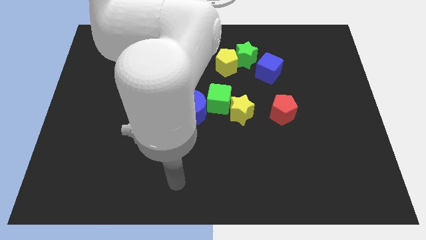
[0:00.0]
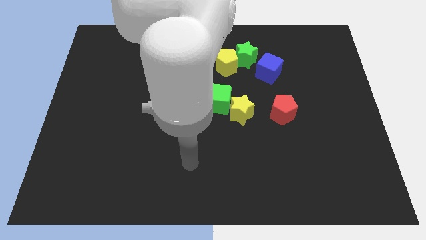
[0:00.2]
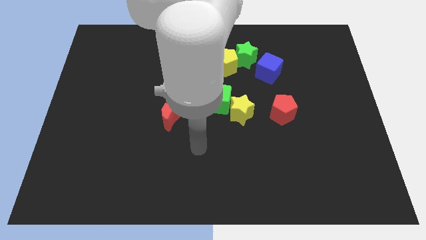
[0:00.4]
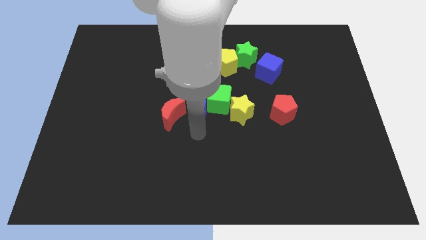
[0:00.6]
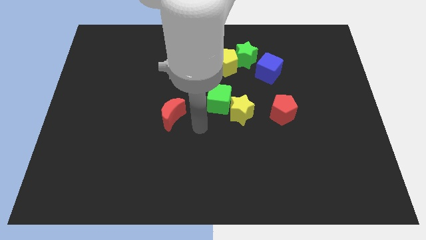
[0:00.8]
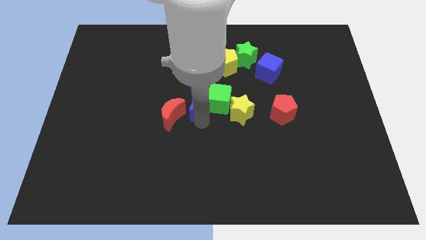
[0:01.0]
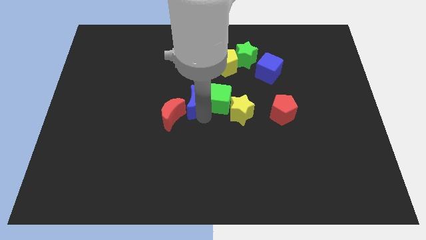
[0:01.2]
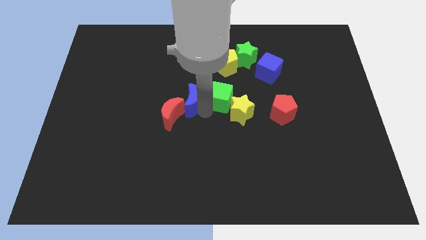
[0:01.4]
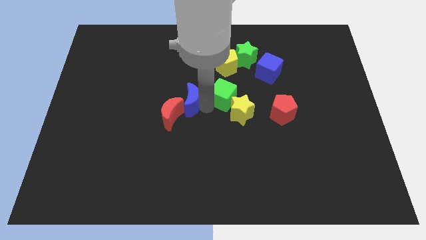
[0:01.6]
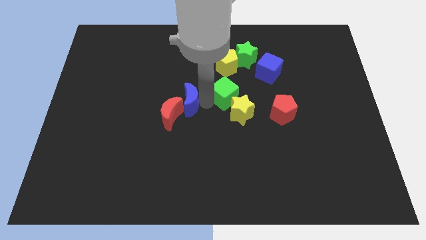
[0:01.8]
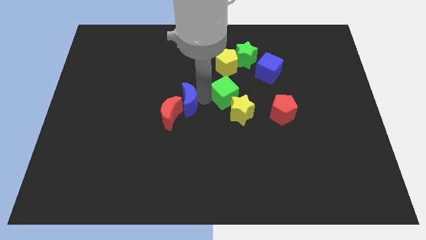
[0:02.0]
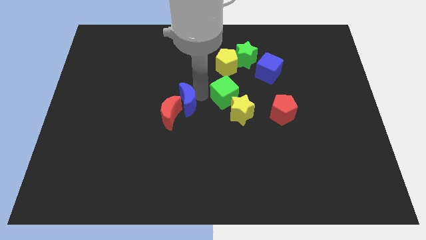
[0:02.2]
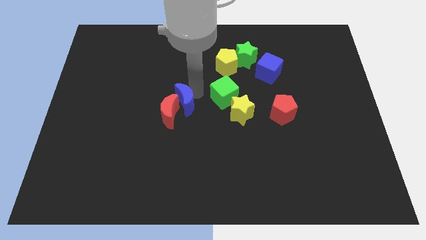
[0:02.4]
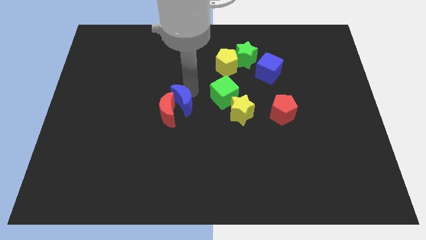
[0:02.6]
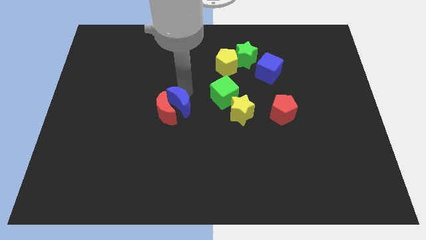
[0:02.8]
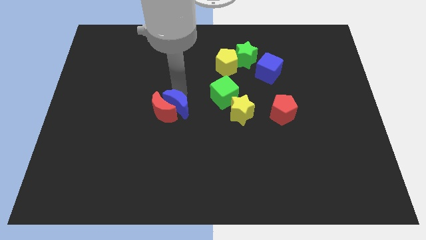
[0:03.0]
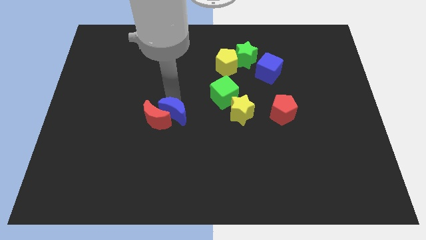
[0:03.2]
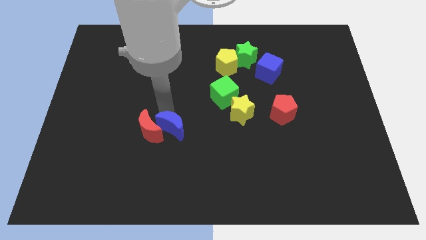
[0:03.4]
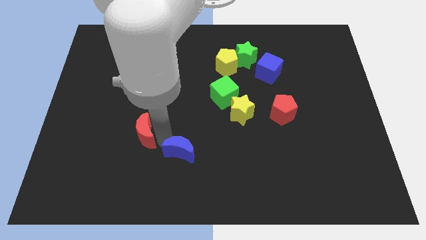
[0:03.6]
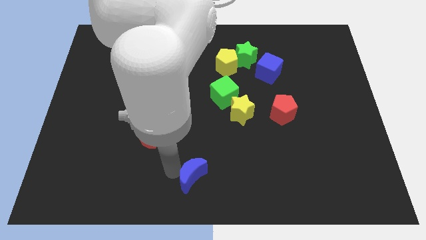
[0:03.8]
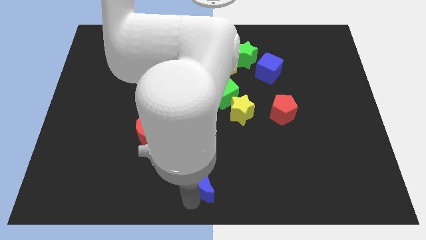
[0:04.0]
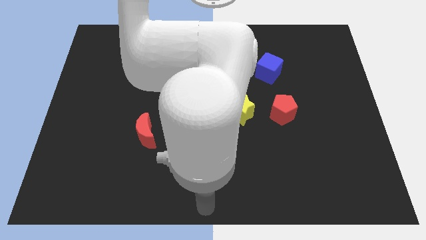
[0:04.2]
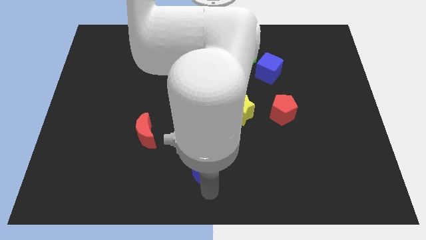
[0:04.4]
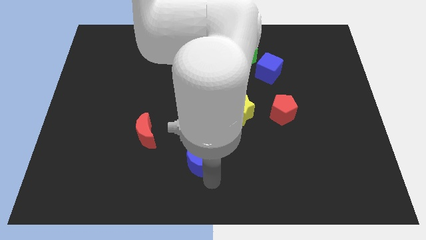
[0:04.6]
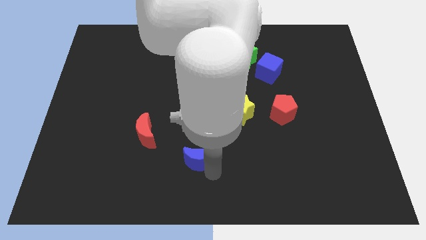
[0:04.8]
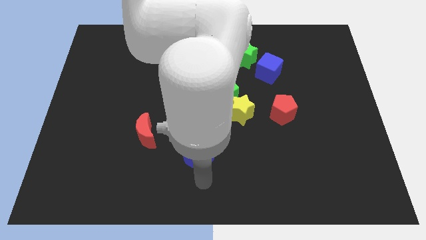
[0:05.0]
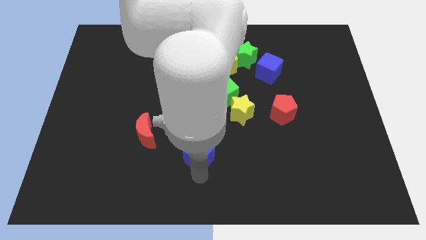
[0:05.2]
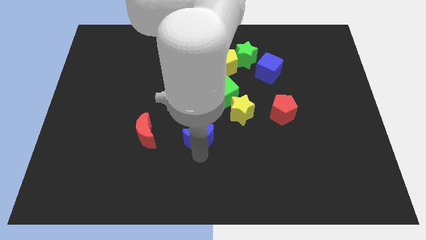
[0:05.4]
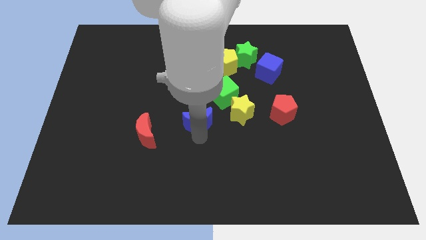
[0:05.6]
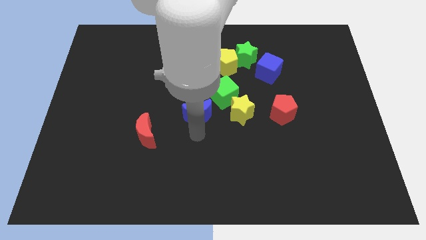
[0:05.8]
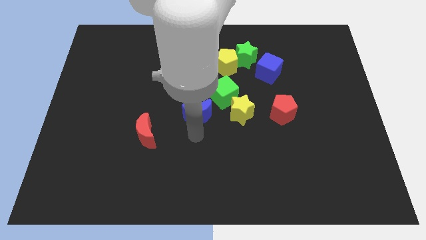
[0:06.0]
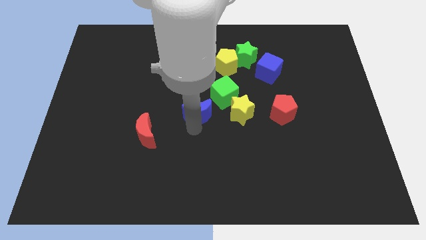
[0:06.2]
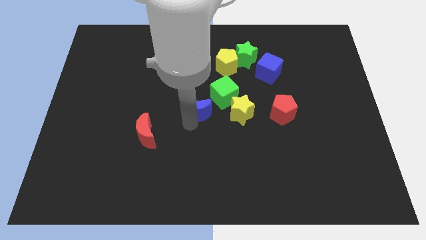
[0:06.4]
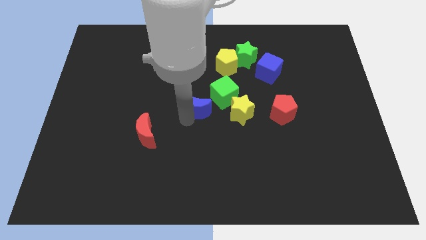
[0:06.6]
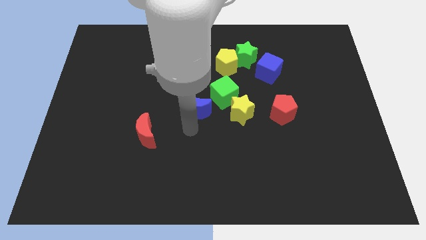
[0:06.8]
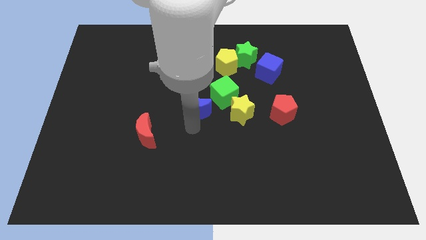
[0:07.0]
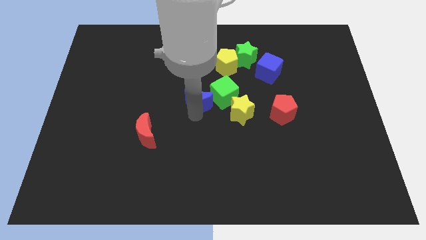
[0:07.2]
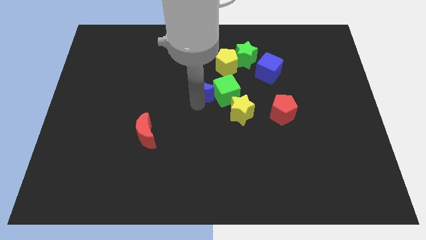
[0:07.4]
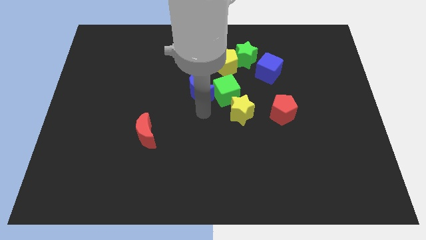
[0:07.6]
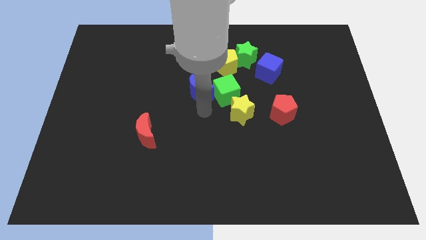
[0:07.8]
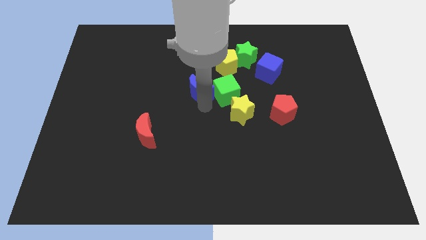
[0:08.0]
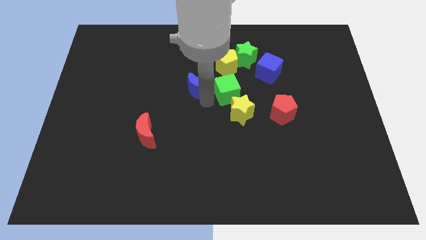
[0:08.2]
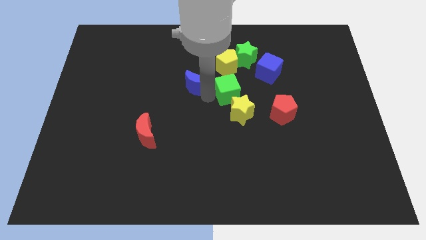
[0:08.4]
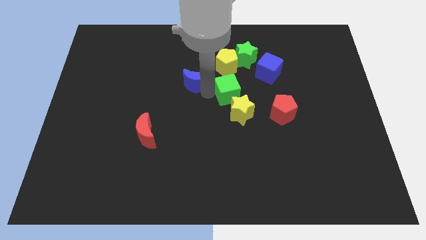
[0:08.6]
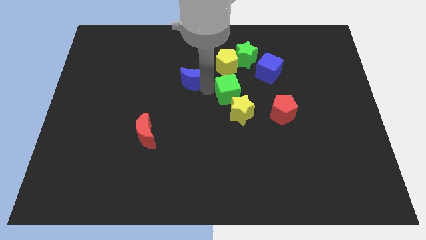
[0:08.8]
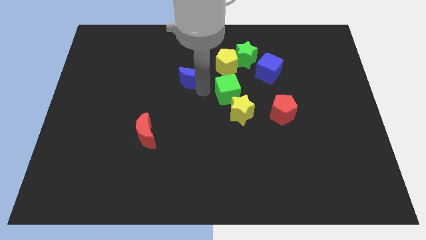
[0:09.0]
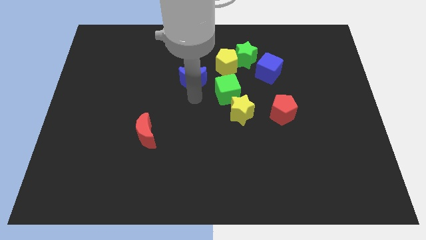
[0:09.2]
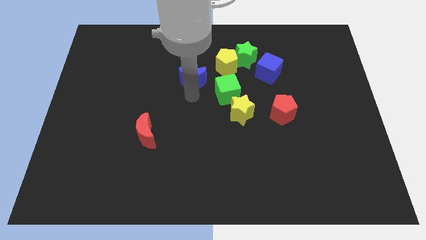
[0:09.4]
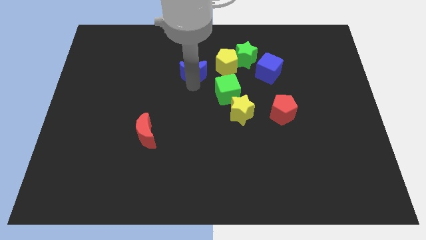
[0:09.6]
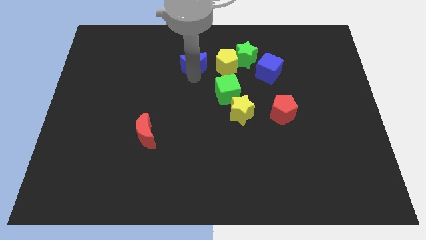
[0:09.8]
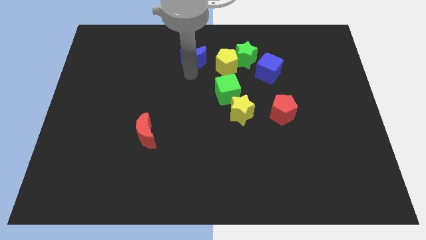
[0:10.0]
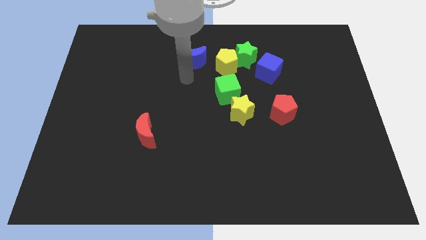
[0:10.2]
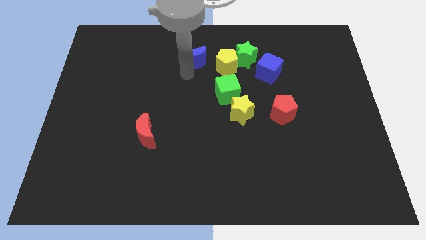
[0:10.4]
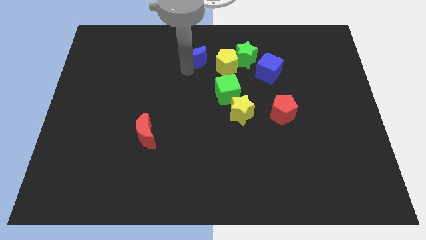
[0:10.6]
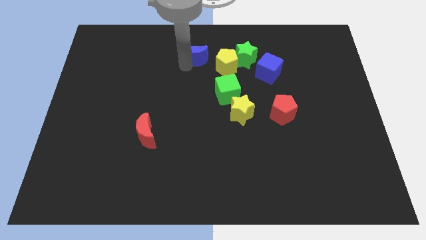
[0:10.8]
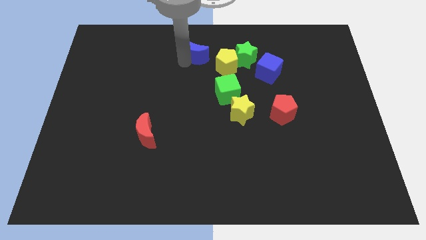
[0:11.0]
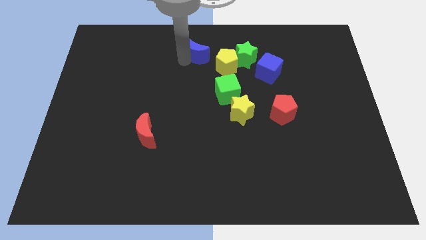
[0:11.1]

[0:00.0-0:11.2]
put the blue moon to the top side

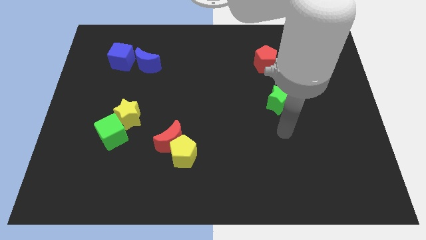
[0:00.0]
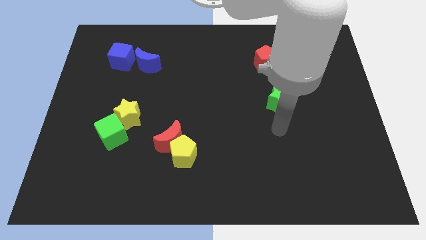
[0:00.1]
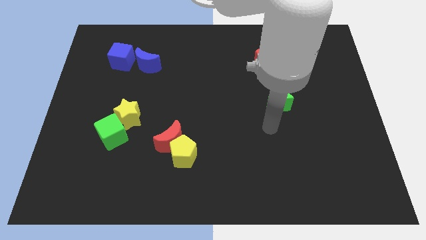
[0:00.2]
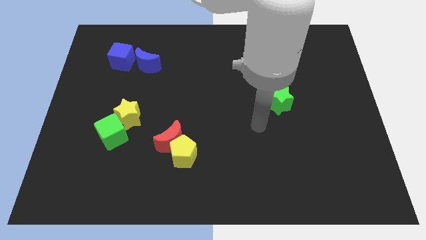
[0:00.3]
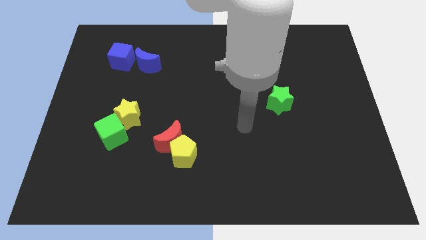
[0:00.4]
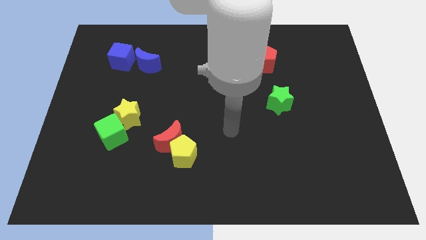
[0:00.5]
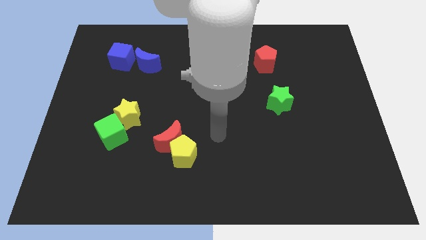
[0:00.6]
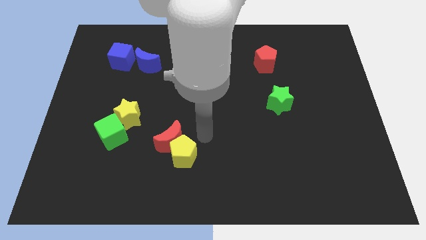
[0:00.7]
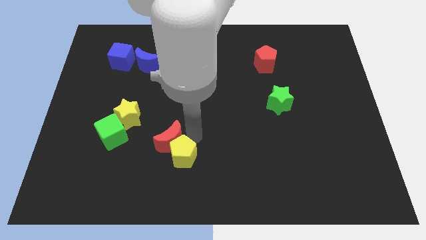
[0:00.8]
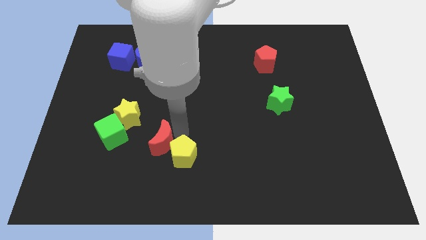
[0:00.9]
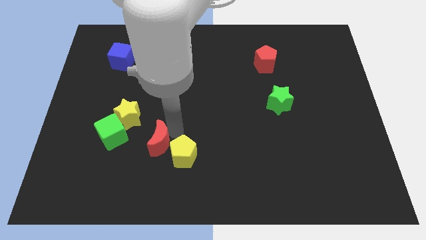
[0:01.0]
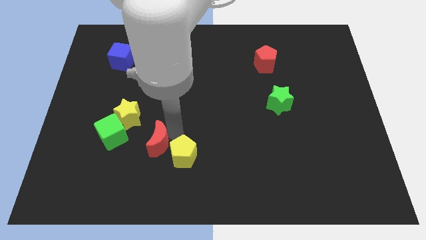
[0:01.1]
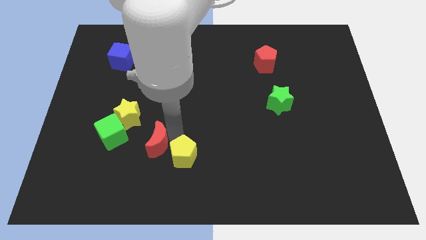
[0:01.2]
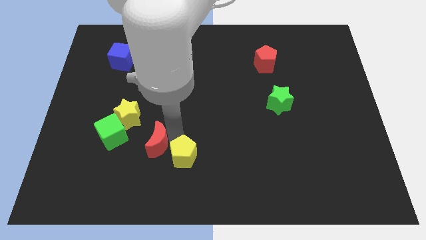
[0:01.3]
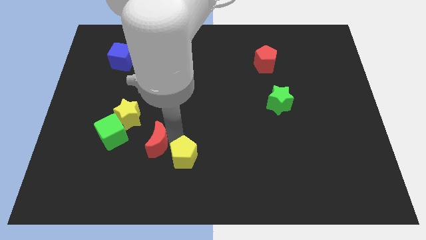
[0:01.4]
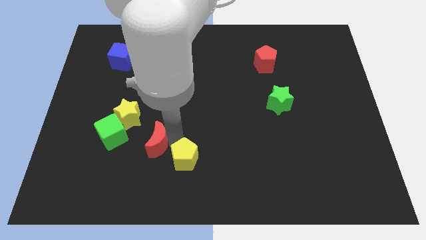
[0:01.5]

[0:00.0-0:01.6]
move the yellow pentagon to the bottom
